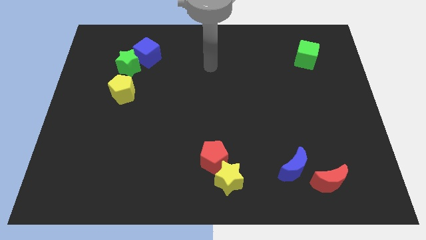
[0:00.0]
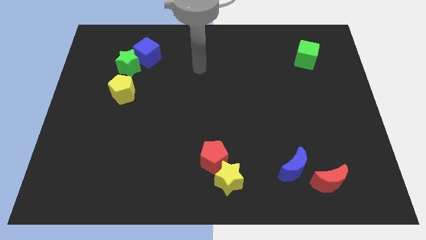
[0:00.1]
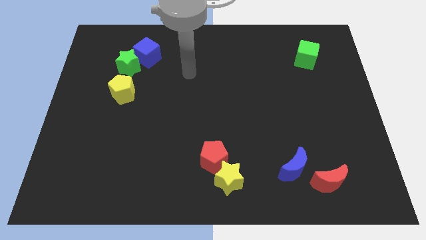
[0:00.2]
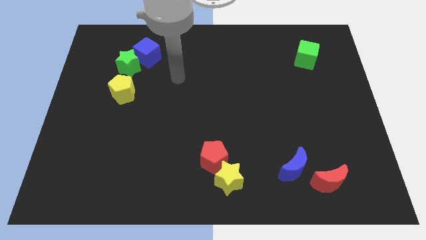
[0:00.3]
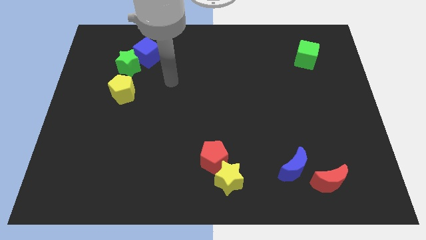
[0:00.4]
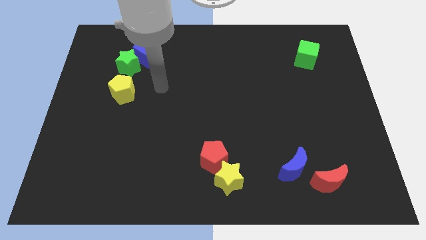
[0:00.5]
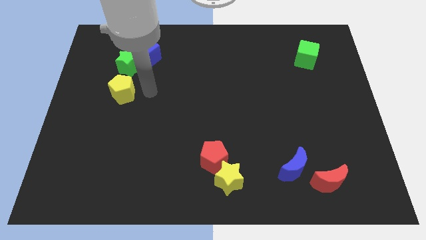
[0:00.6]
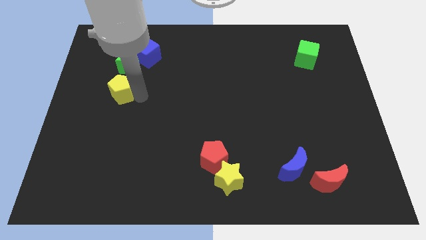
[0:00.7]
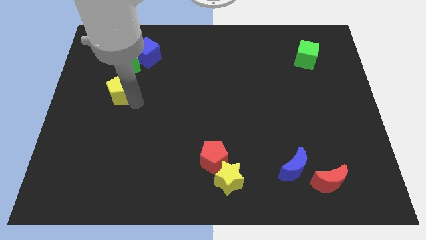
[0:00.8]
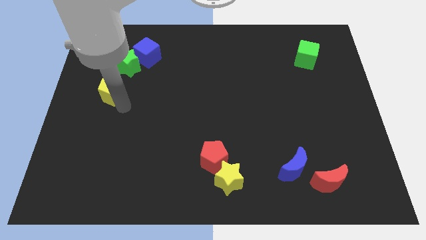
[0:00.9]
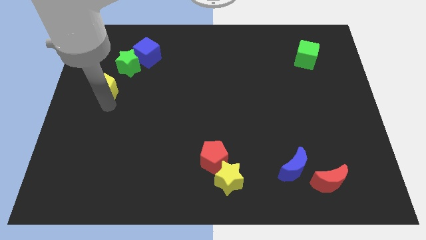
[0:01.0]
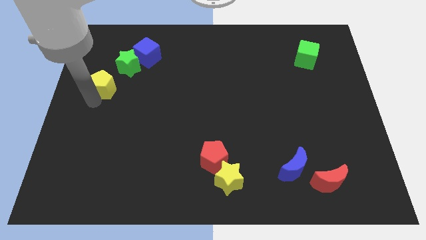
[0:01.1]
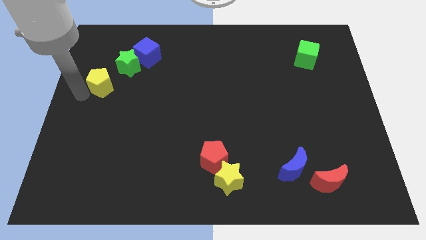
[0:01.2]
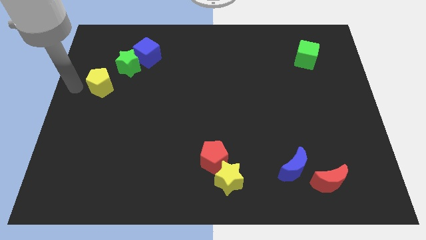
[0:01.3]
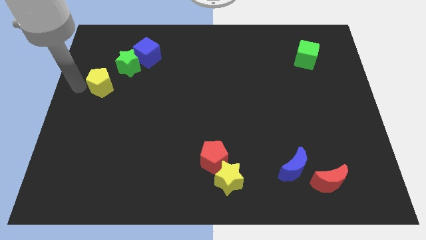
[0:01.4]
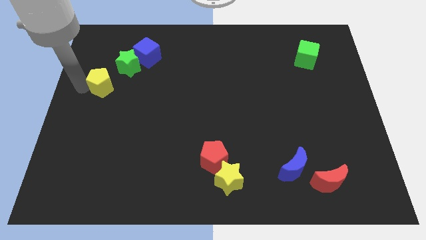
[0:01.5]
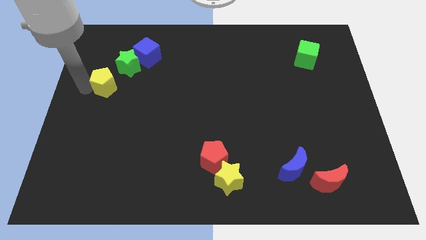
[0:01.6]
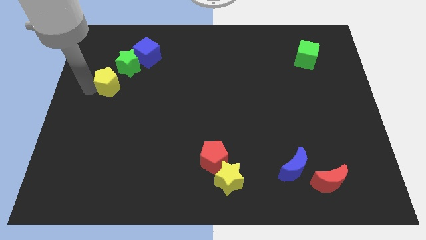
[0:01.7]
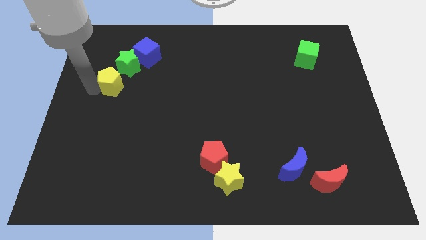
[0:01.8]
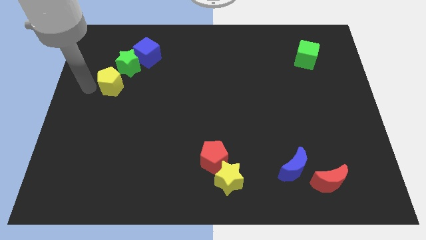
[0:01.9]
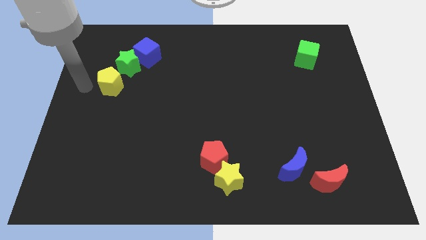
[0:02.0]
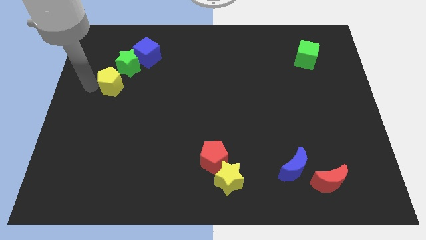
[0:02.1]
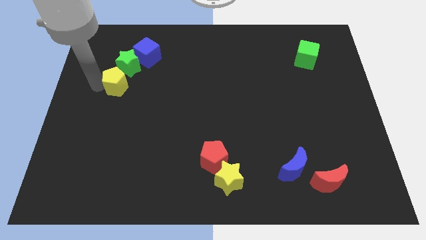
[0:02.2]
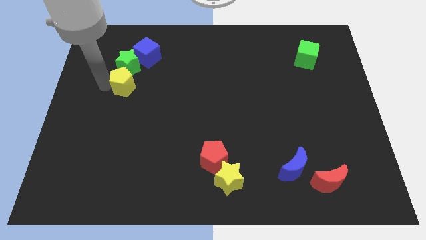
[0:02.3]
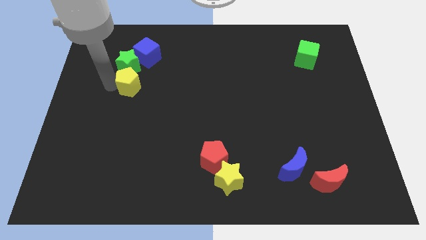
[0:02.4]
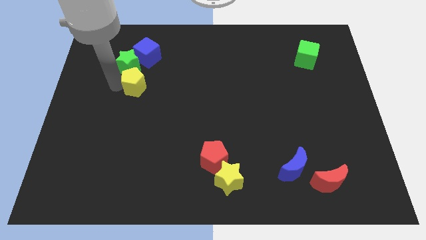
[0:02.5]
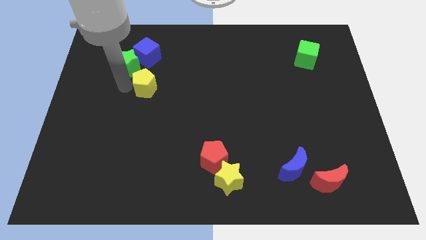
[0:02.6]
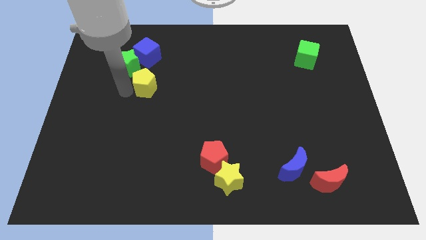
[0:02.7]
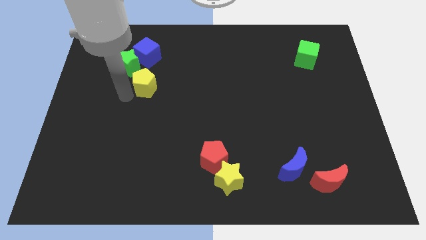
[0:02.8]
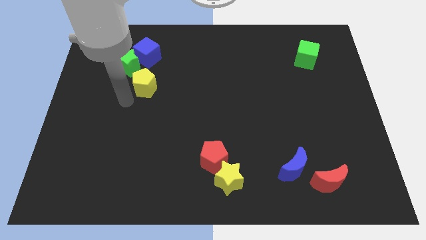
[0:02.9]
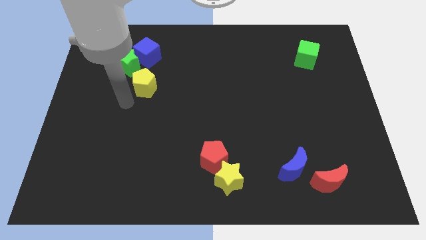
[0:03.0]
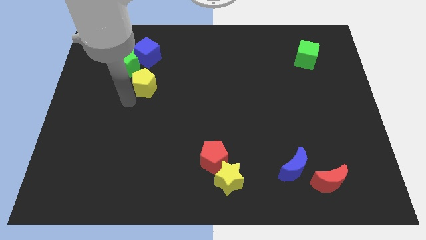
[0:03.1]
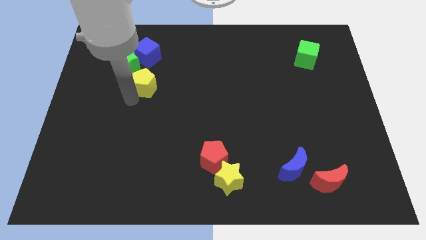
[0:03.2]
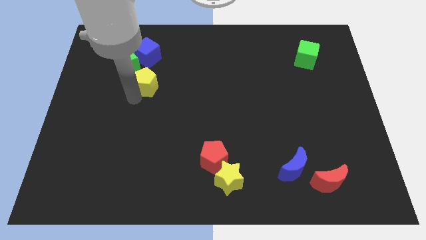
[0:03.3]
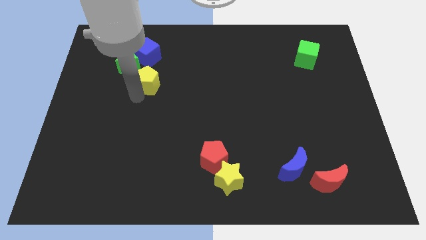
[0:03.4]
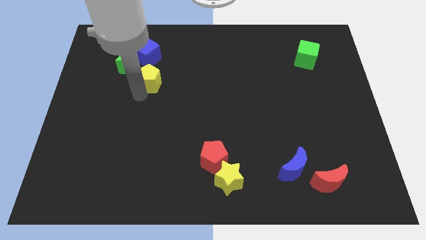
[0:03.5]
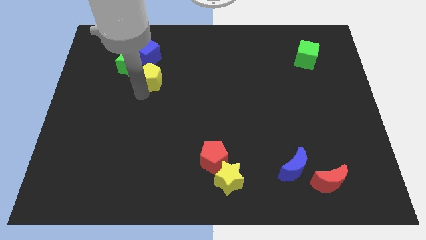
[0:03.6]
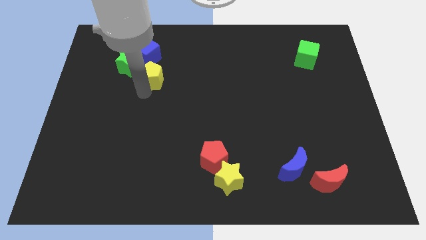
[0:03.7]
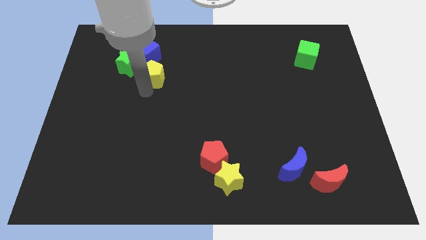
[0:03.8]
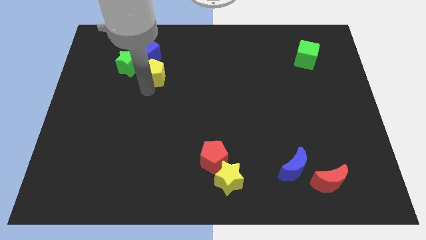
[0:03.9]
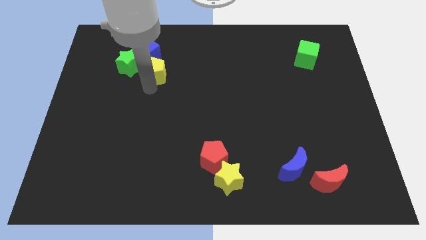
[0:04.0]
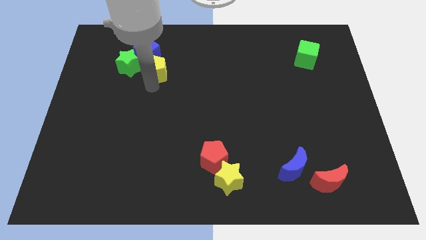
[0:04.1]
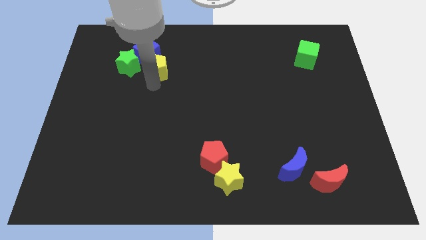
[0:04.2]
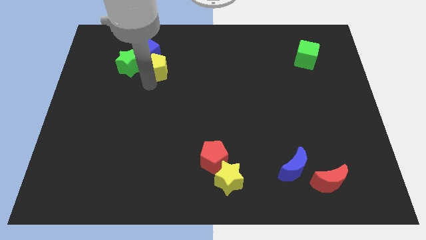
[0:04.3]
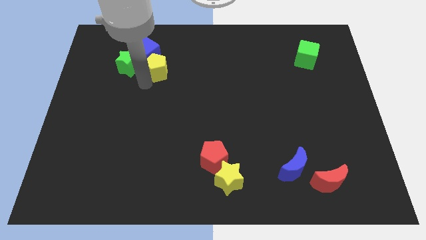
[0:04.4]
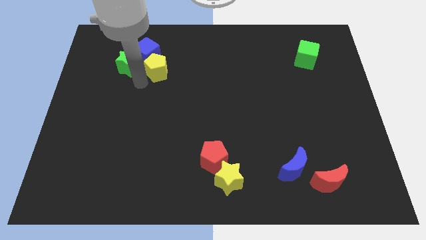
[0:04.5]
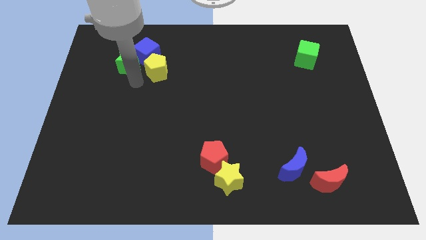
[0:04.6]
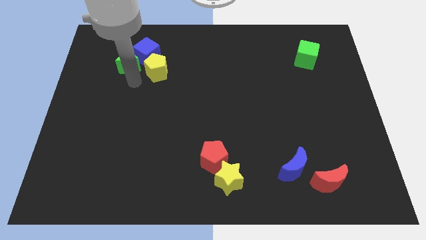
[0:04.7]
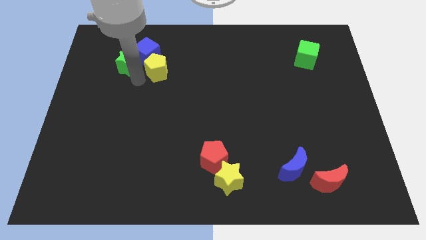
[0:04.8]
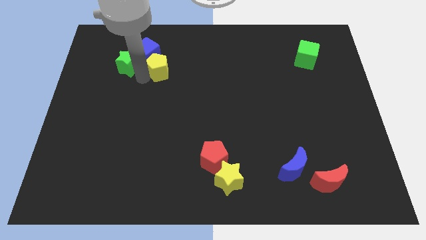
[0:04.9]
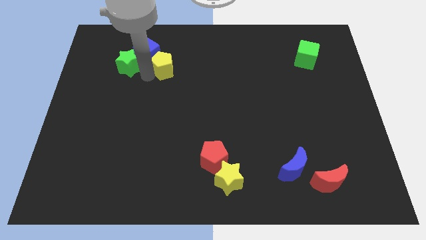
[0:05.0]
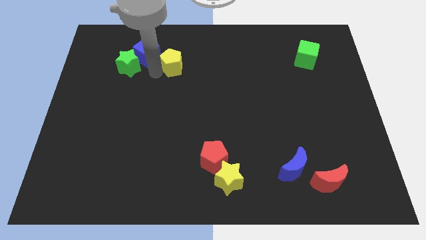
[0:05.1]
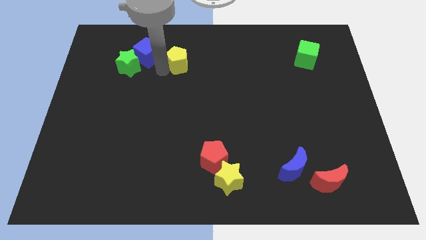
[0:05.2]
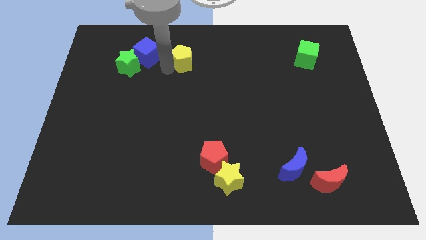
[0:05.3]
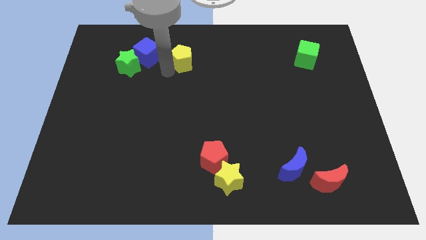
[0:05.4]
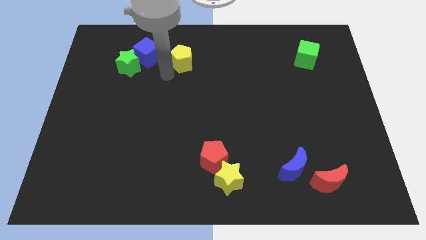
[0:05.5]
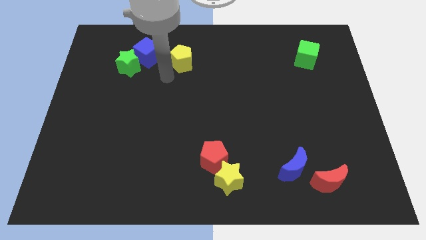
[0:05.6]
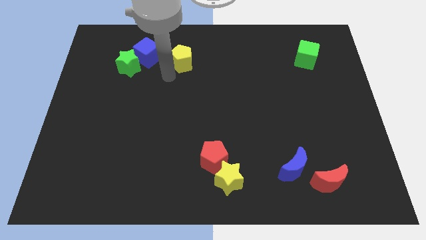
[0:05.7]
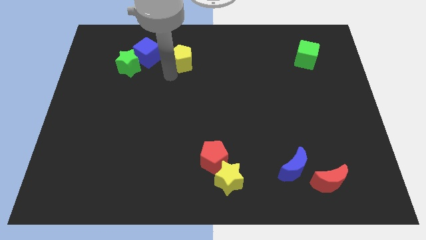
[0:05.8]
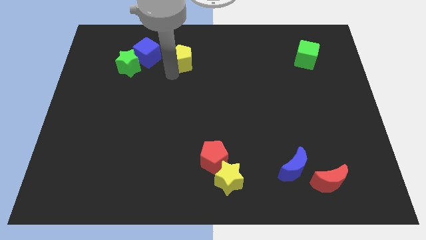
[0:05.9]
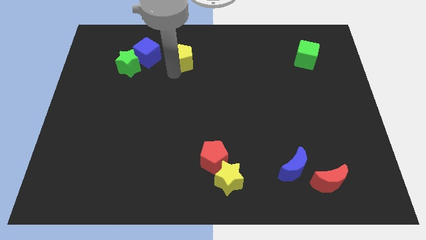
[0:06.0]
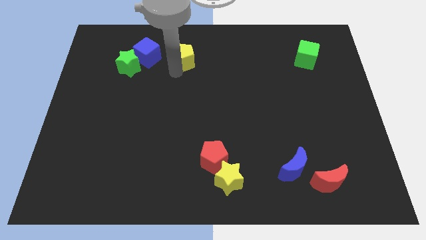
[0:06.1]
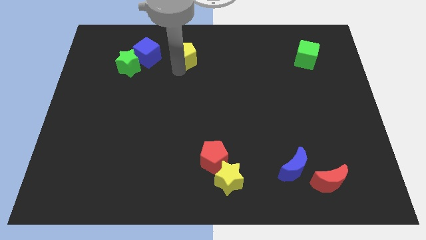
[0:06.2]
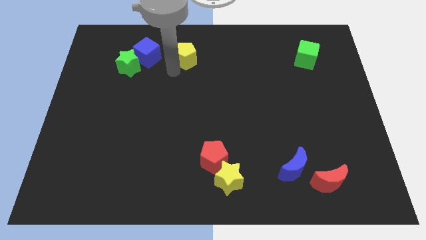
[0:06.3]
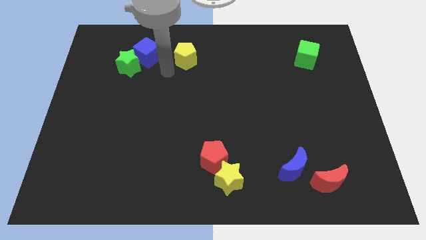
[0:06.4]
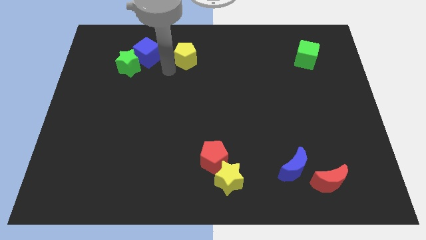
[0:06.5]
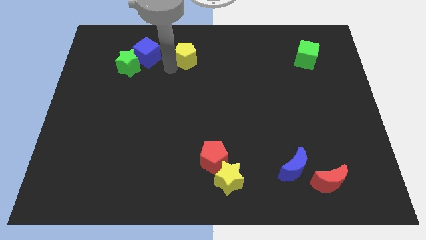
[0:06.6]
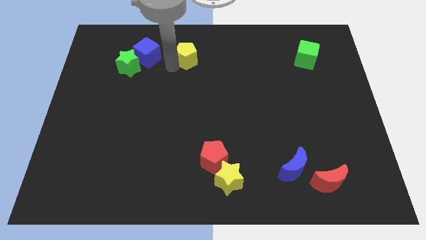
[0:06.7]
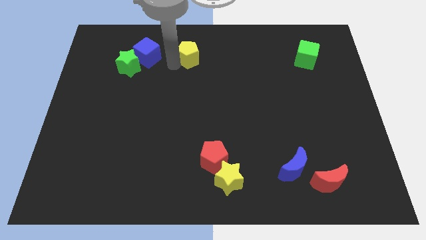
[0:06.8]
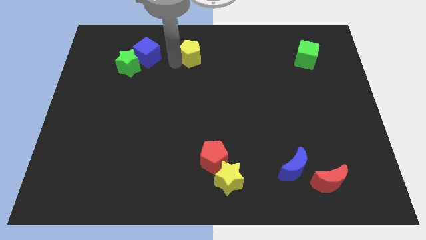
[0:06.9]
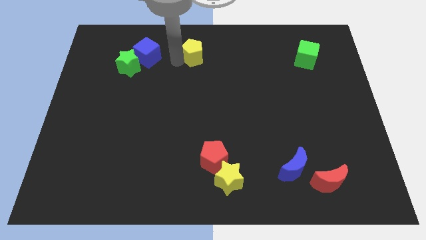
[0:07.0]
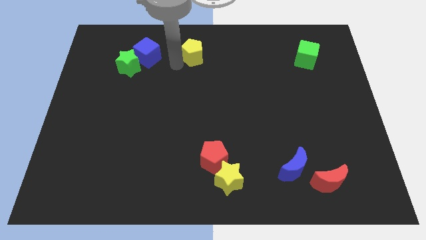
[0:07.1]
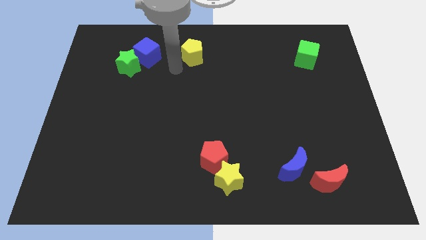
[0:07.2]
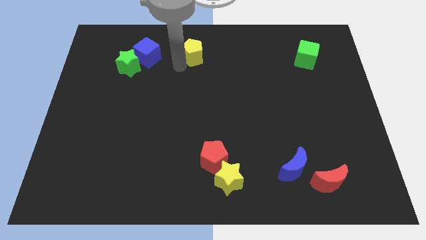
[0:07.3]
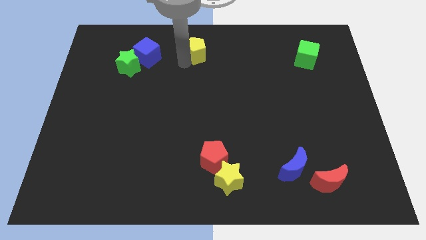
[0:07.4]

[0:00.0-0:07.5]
push the yellow pentagon to the top
